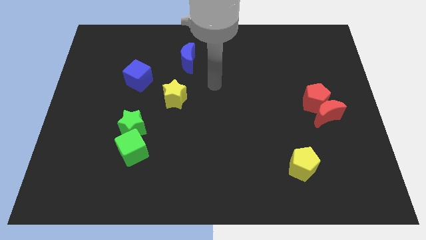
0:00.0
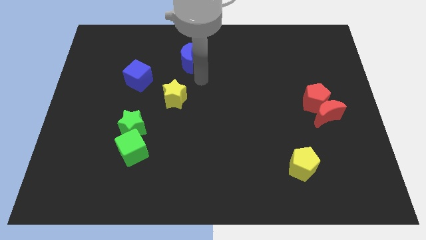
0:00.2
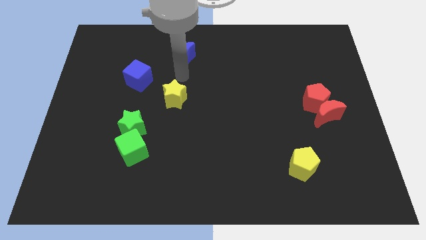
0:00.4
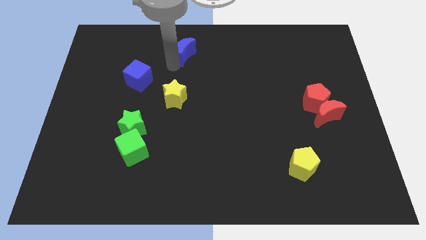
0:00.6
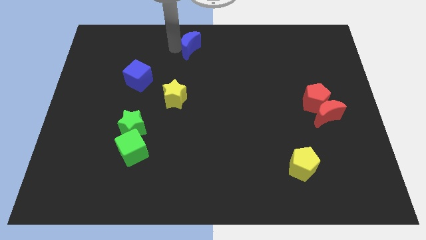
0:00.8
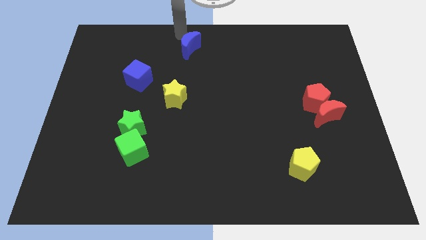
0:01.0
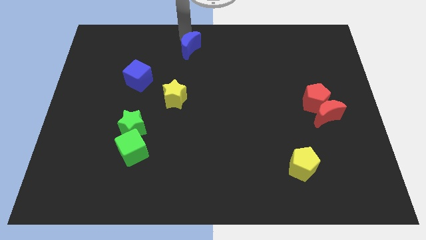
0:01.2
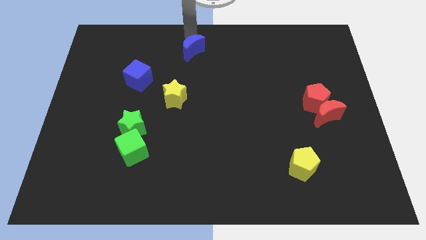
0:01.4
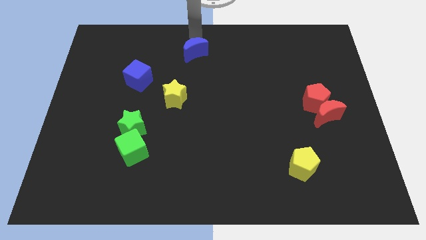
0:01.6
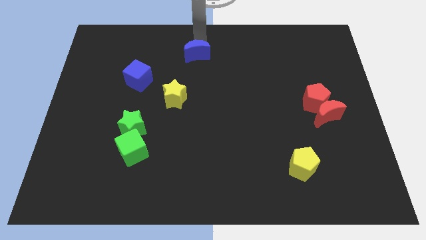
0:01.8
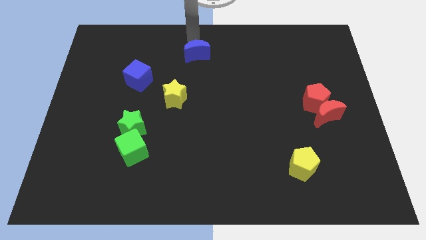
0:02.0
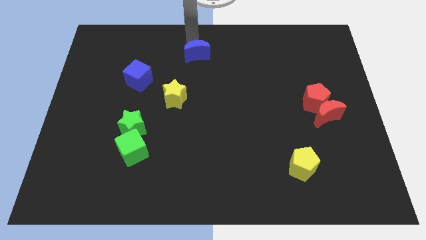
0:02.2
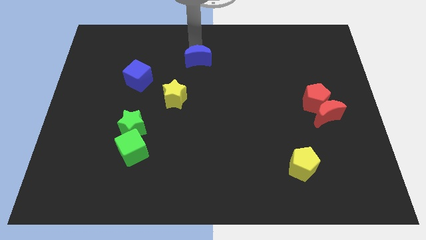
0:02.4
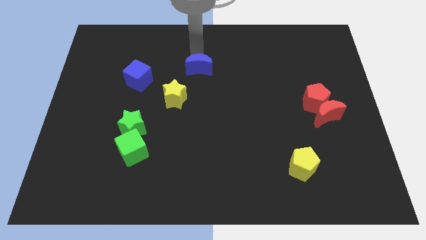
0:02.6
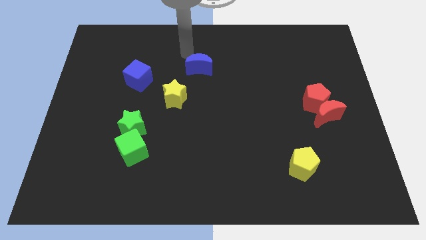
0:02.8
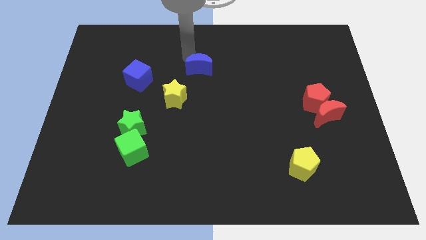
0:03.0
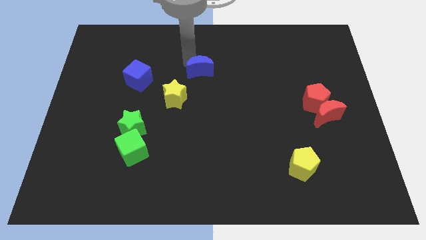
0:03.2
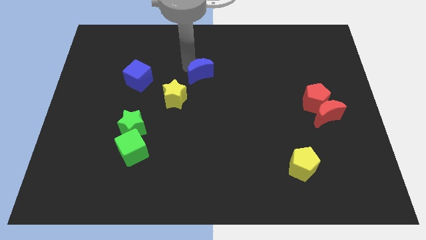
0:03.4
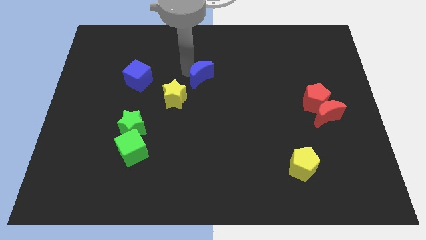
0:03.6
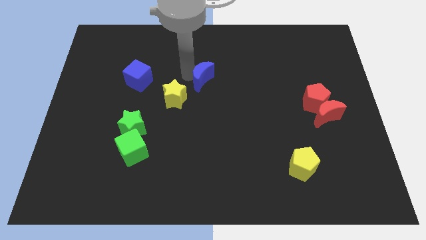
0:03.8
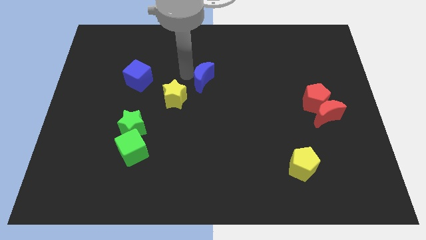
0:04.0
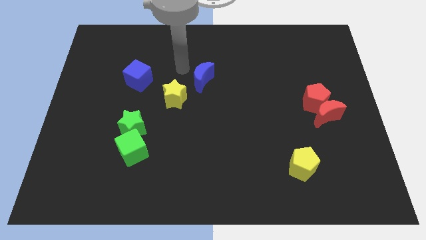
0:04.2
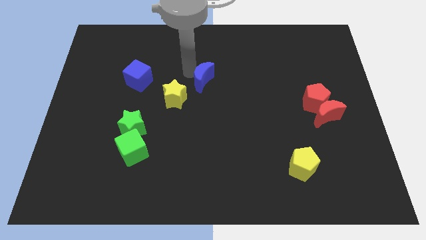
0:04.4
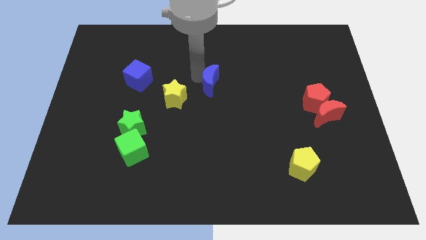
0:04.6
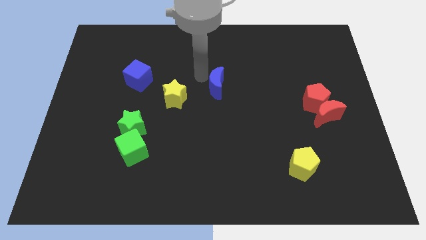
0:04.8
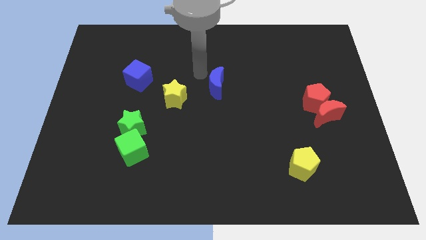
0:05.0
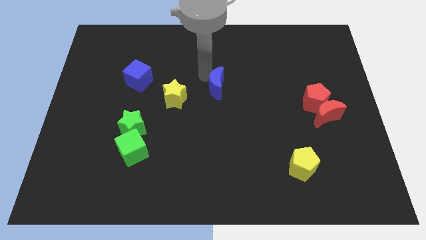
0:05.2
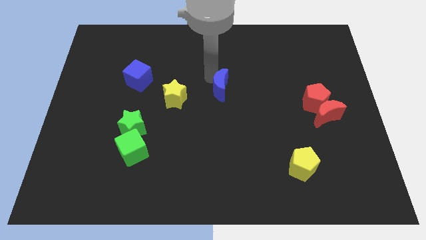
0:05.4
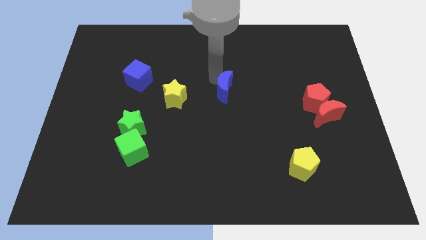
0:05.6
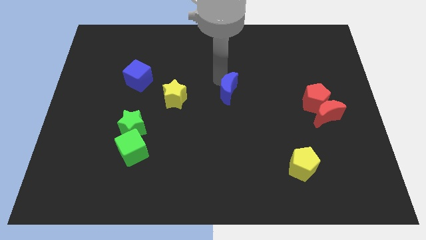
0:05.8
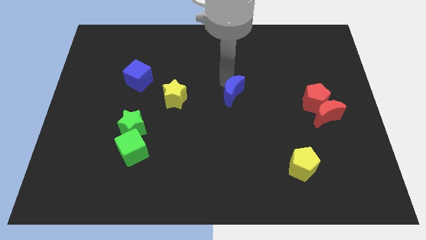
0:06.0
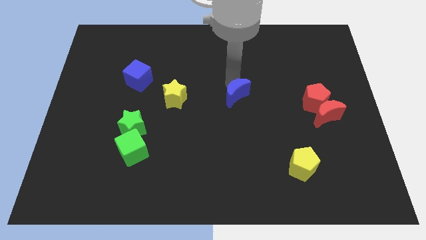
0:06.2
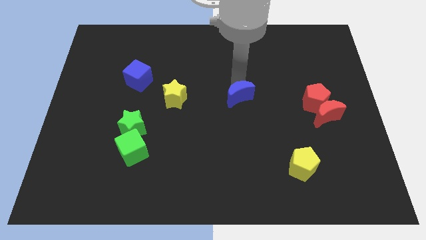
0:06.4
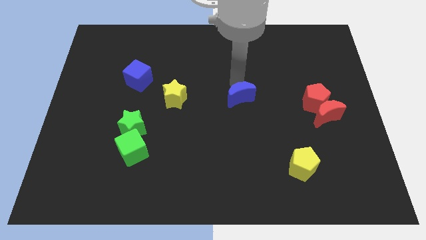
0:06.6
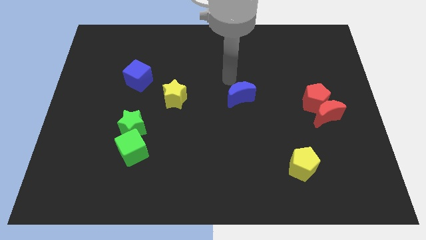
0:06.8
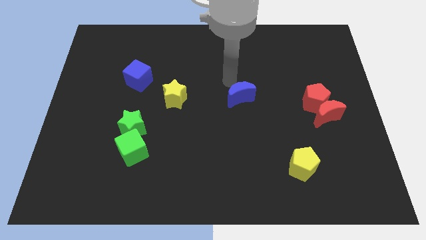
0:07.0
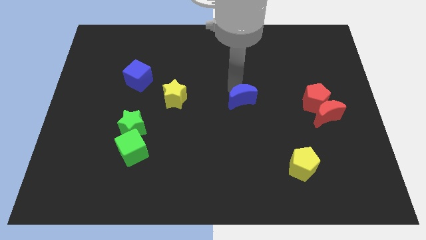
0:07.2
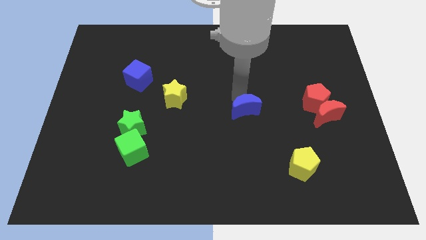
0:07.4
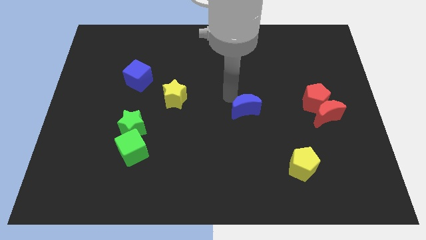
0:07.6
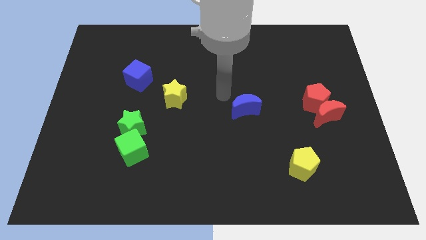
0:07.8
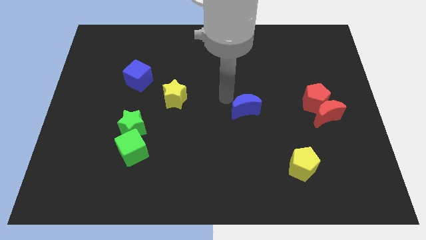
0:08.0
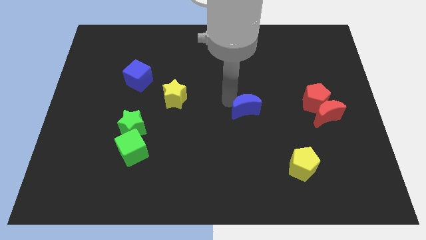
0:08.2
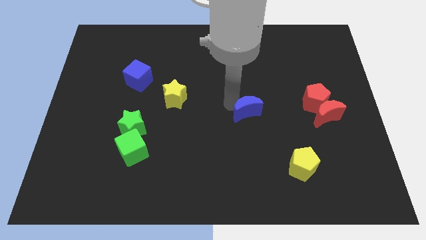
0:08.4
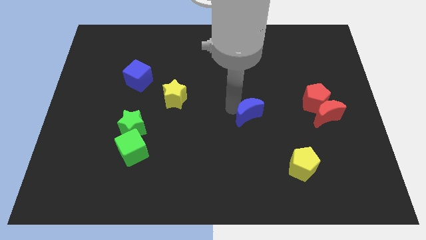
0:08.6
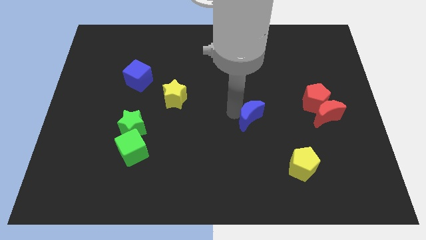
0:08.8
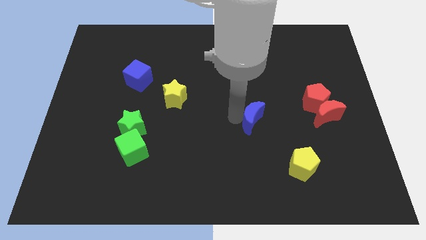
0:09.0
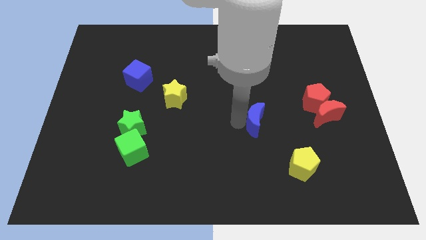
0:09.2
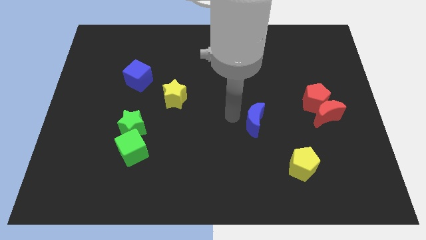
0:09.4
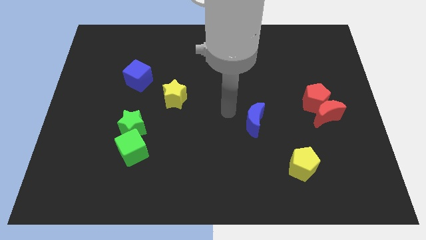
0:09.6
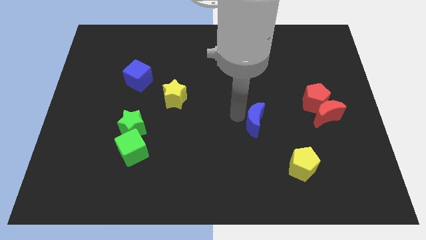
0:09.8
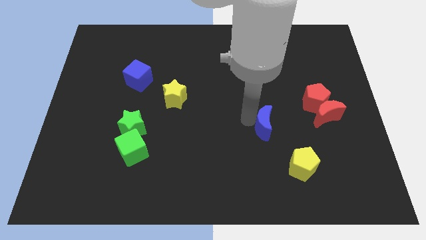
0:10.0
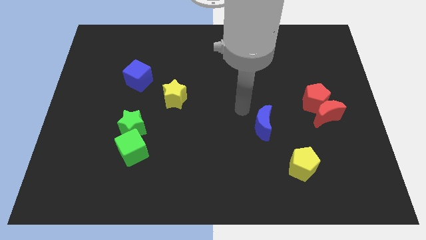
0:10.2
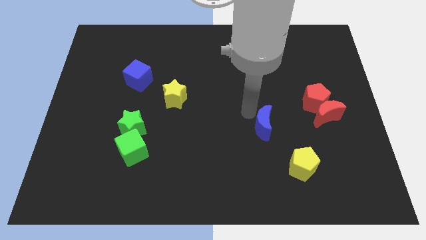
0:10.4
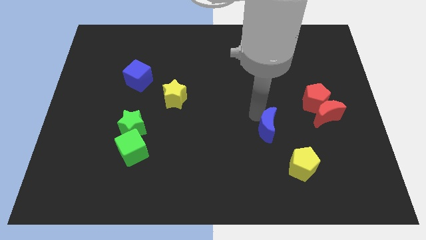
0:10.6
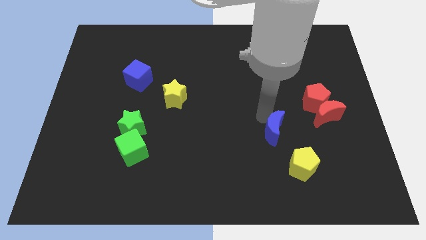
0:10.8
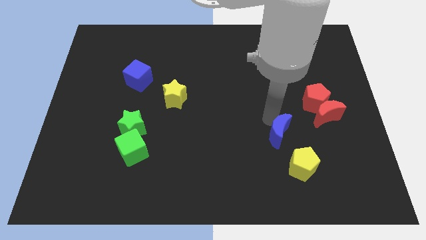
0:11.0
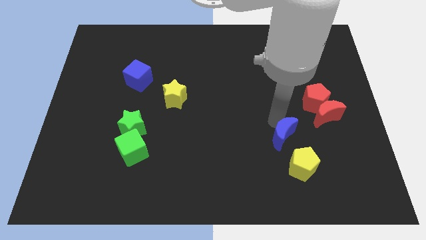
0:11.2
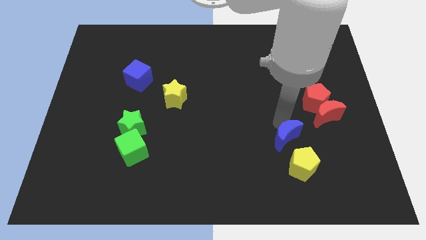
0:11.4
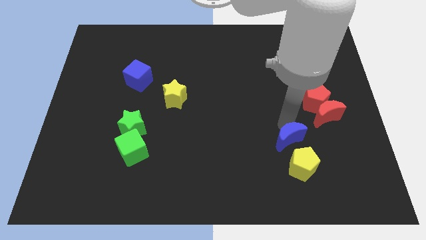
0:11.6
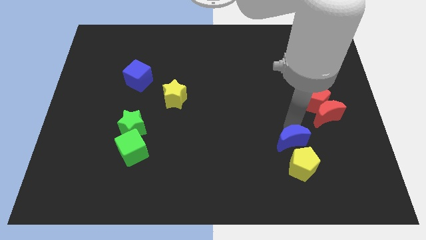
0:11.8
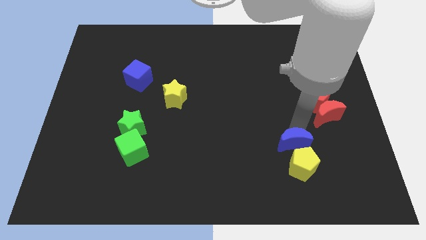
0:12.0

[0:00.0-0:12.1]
push the blue moon to the yellow pentagon

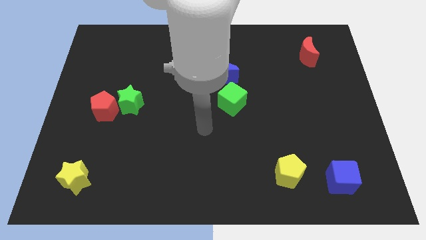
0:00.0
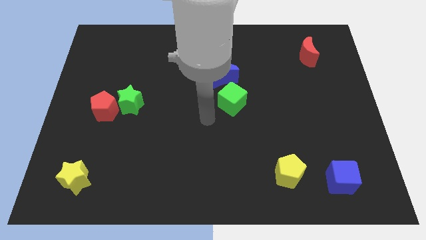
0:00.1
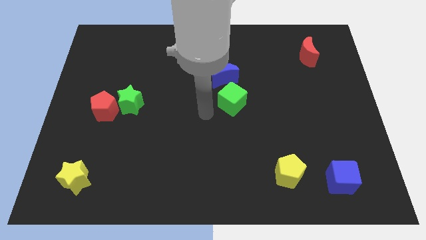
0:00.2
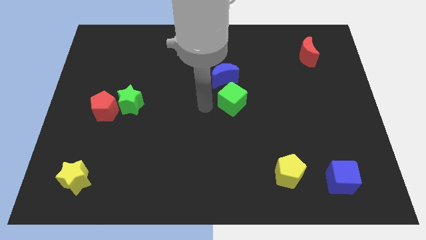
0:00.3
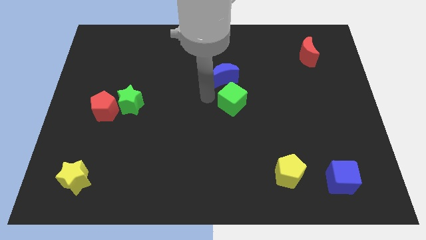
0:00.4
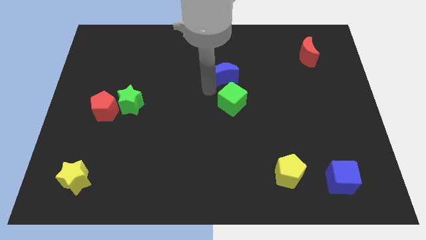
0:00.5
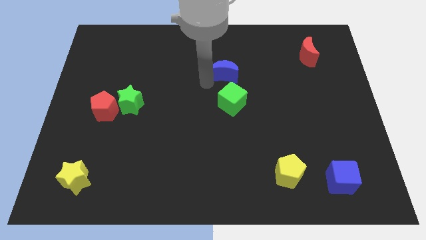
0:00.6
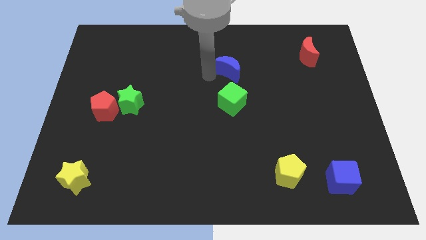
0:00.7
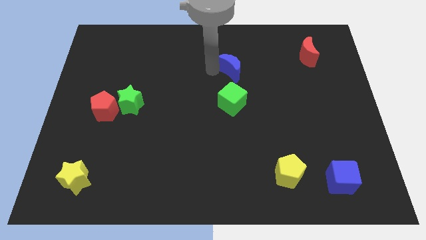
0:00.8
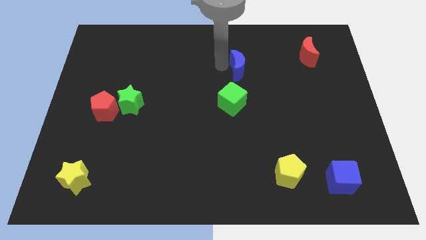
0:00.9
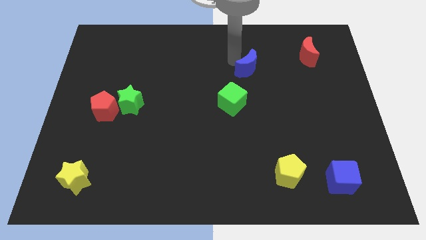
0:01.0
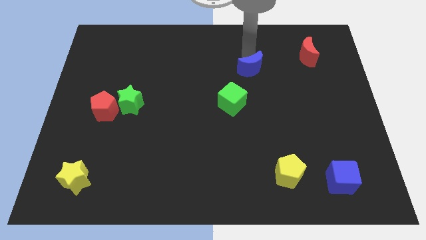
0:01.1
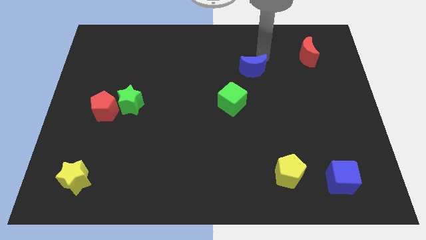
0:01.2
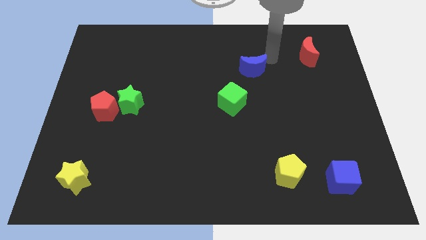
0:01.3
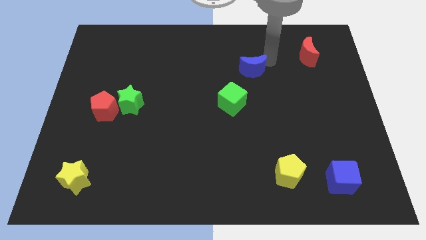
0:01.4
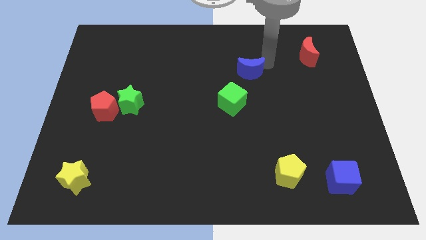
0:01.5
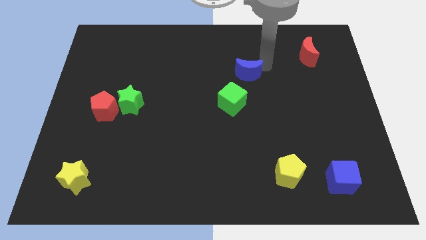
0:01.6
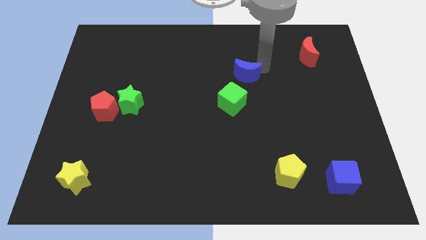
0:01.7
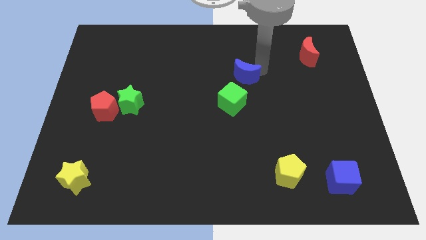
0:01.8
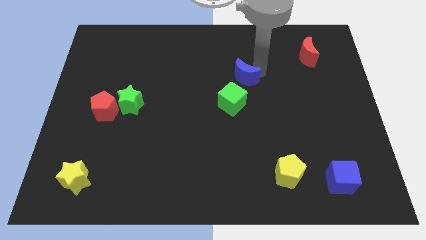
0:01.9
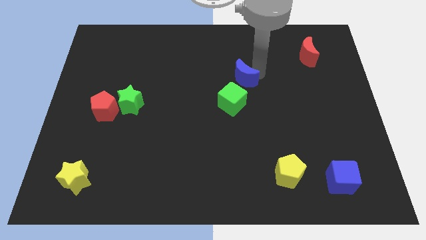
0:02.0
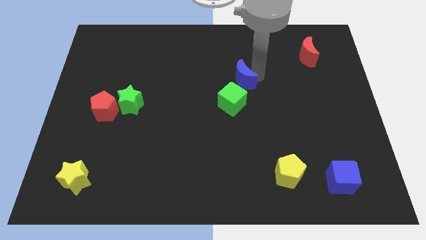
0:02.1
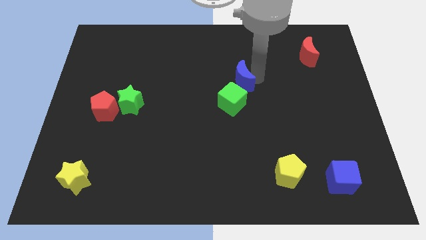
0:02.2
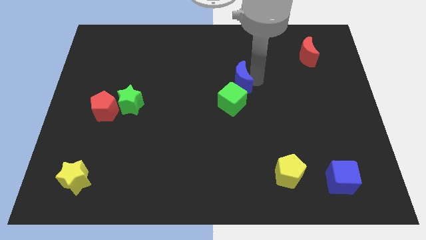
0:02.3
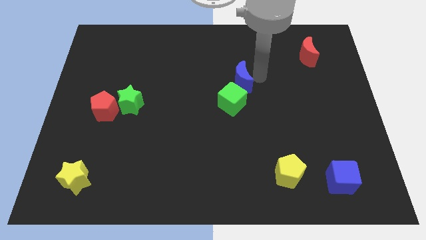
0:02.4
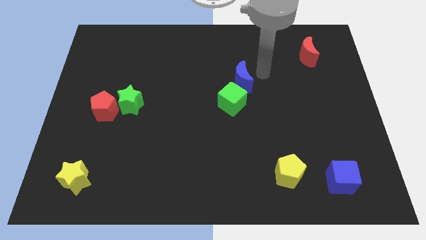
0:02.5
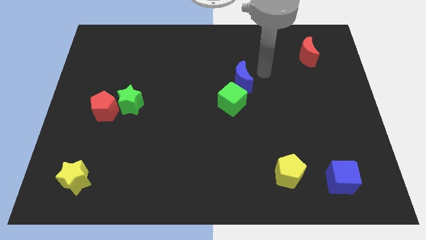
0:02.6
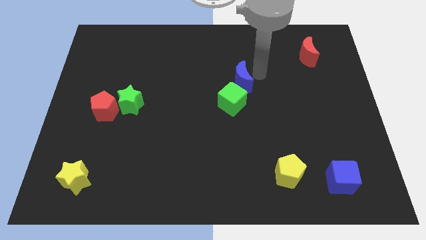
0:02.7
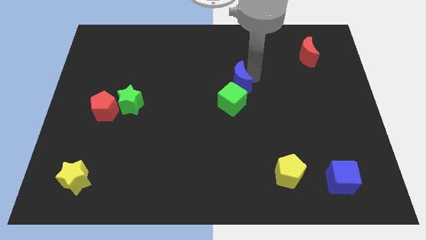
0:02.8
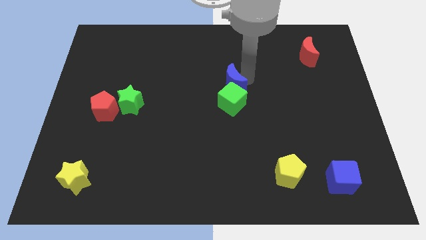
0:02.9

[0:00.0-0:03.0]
push the blue moon to the green cube
